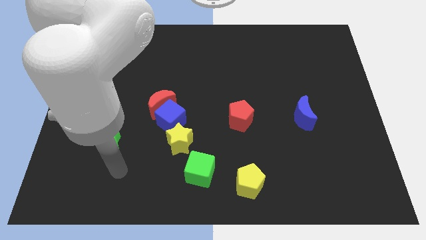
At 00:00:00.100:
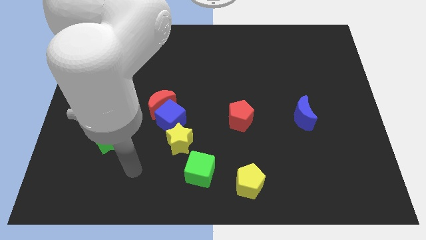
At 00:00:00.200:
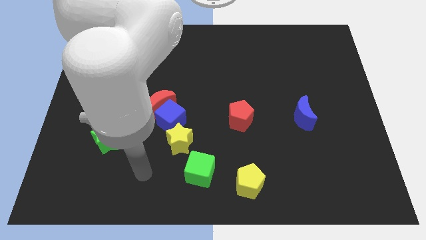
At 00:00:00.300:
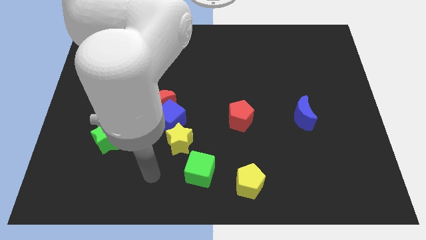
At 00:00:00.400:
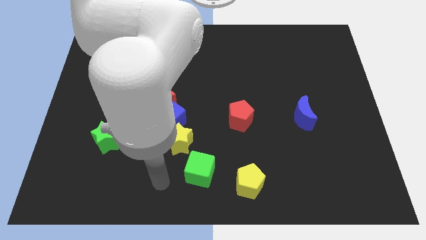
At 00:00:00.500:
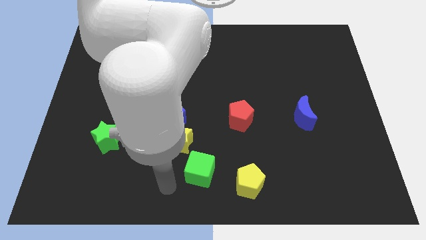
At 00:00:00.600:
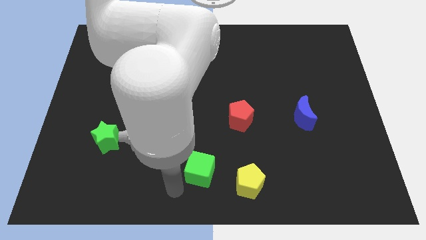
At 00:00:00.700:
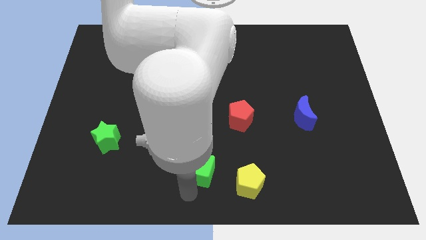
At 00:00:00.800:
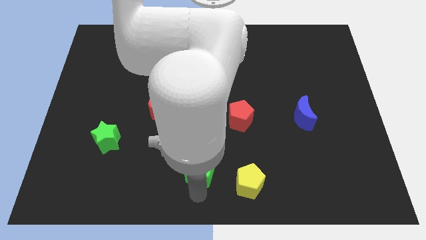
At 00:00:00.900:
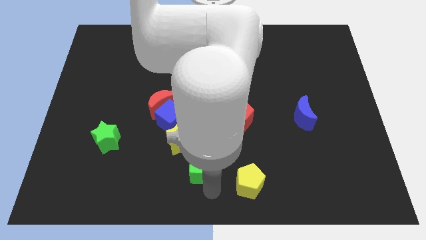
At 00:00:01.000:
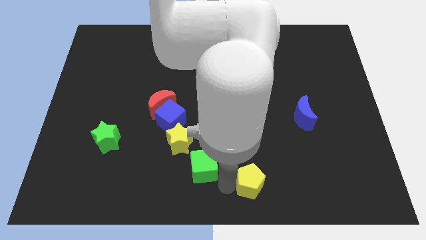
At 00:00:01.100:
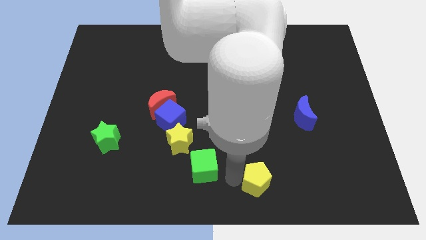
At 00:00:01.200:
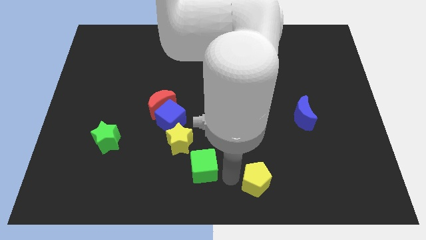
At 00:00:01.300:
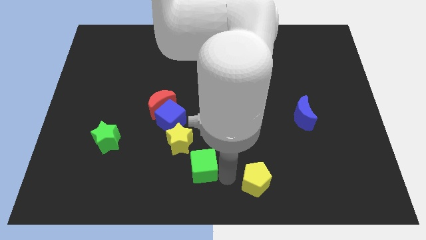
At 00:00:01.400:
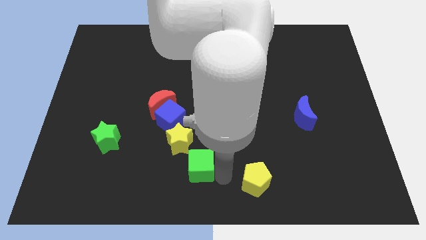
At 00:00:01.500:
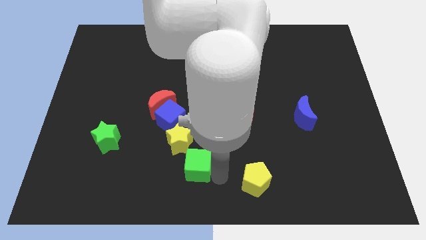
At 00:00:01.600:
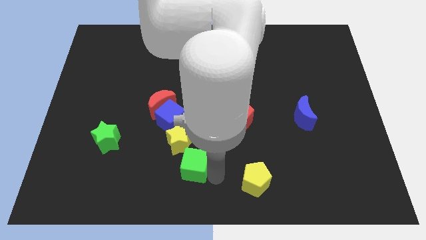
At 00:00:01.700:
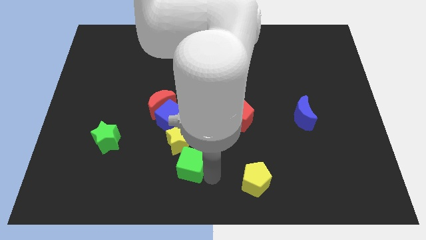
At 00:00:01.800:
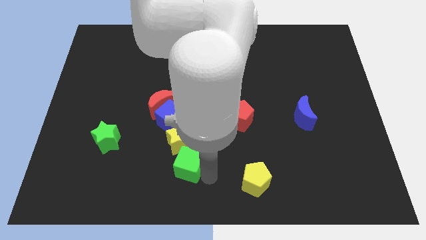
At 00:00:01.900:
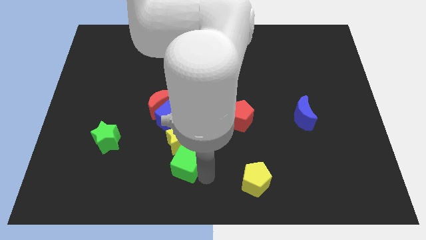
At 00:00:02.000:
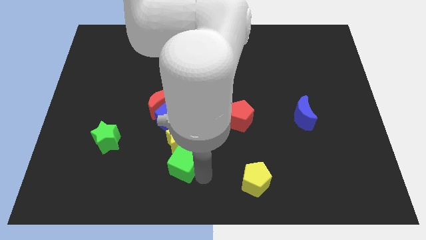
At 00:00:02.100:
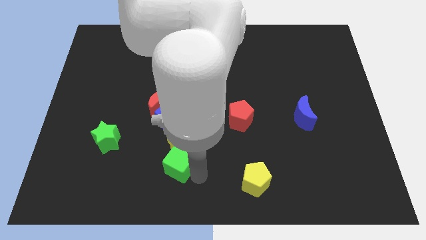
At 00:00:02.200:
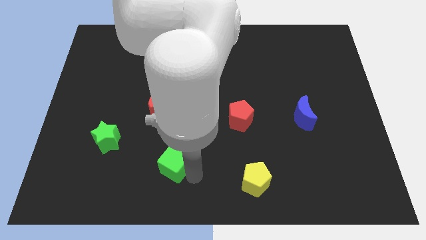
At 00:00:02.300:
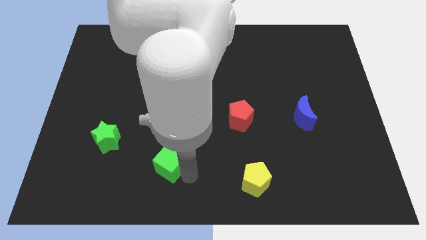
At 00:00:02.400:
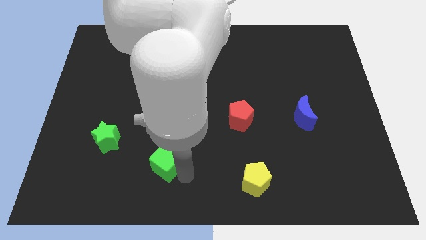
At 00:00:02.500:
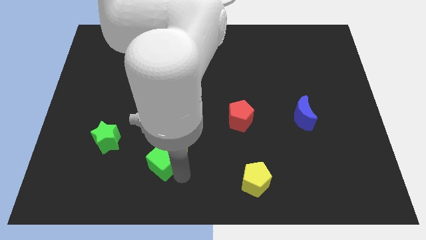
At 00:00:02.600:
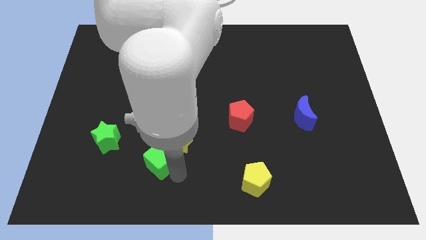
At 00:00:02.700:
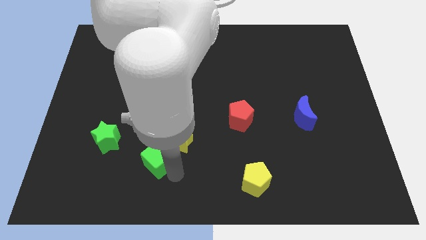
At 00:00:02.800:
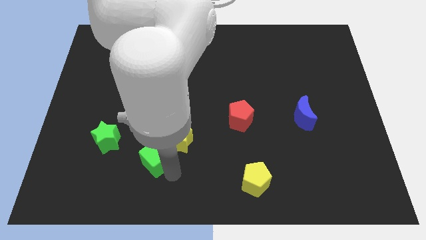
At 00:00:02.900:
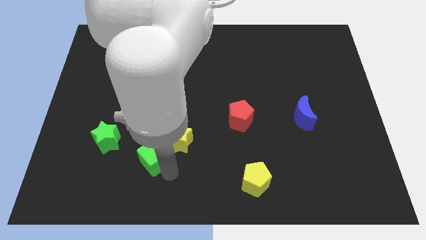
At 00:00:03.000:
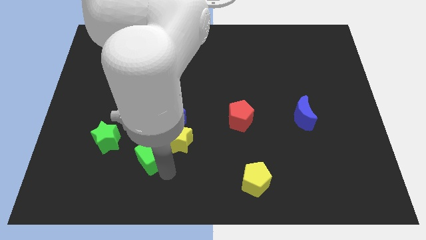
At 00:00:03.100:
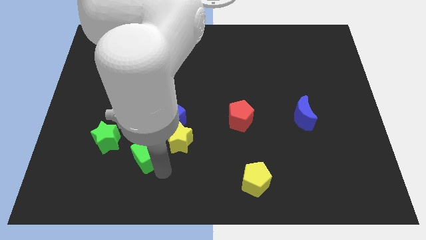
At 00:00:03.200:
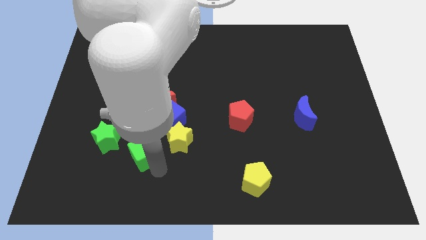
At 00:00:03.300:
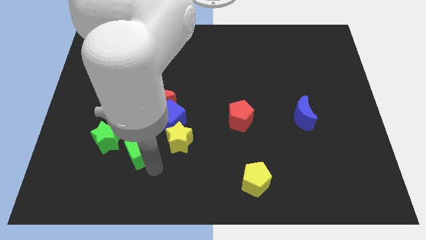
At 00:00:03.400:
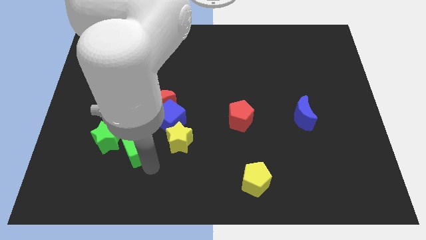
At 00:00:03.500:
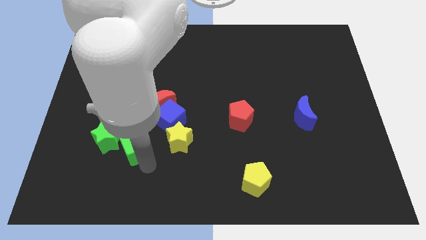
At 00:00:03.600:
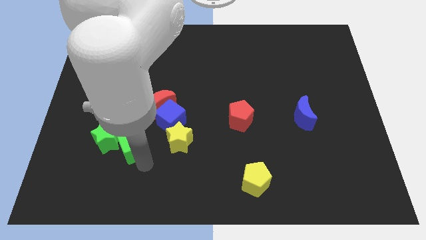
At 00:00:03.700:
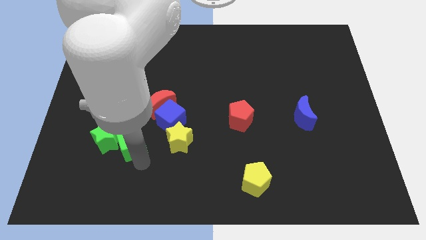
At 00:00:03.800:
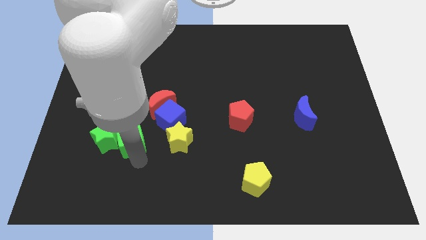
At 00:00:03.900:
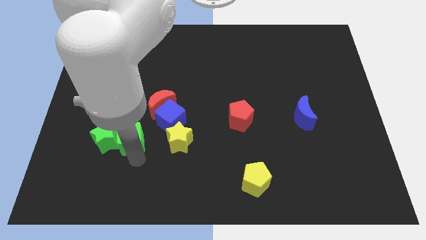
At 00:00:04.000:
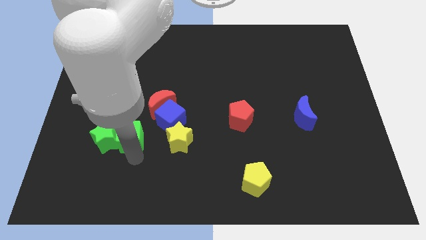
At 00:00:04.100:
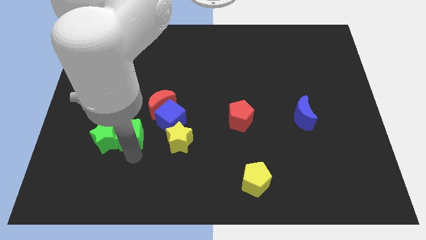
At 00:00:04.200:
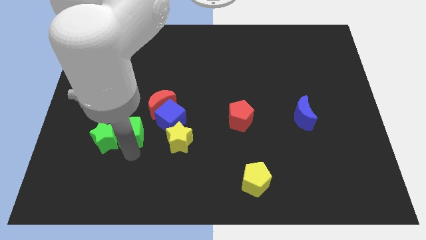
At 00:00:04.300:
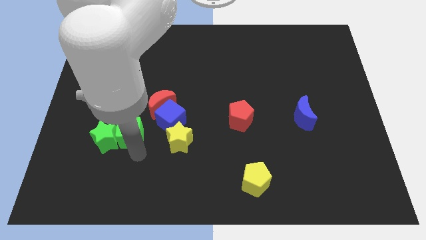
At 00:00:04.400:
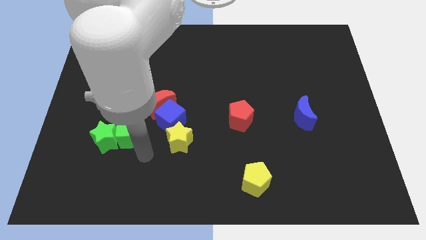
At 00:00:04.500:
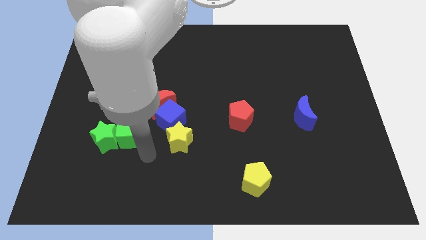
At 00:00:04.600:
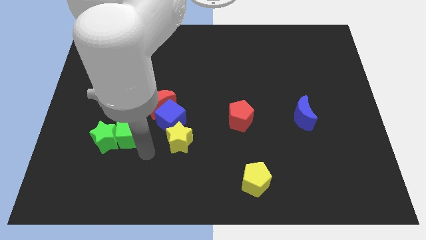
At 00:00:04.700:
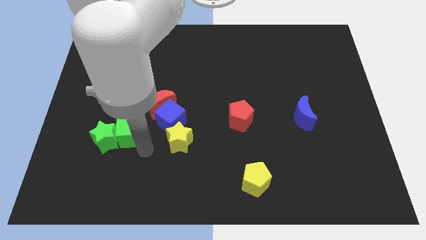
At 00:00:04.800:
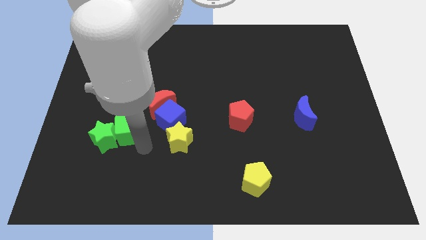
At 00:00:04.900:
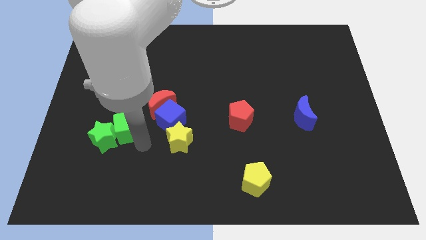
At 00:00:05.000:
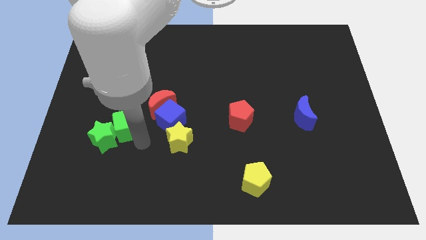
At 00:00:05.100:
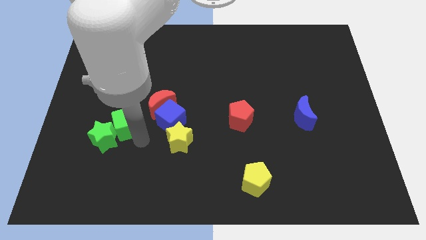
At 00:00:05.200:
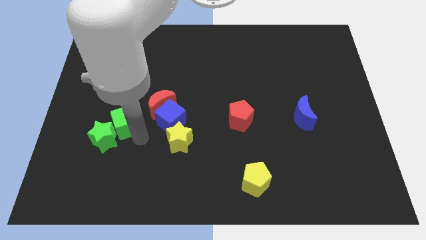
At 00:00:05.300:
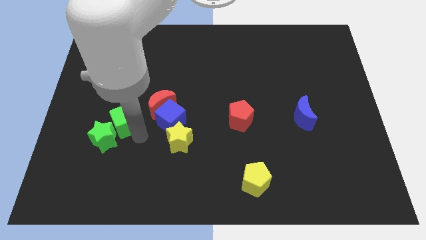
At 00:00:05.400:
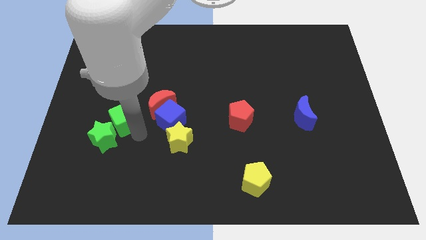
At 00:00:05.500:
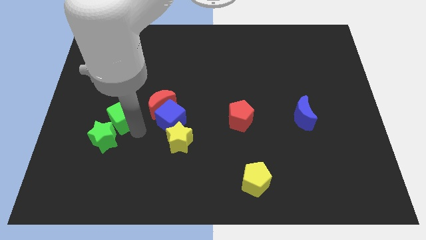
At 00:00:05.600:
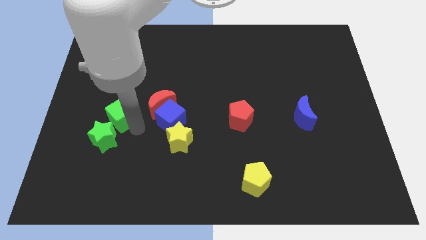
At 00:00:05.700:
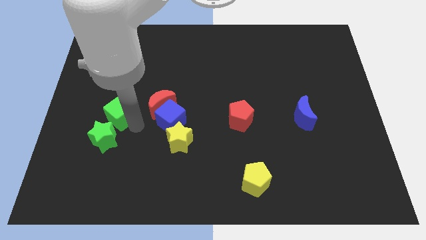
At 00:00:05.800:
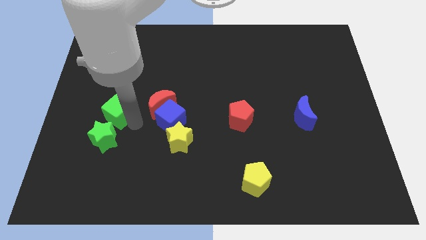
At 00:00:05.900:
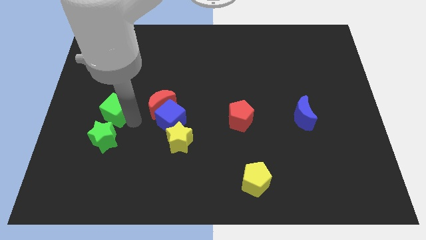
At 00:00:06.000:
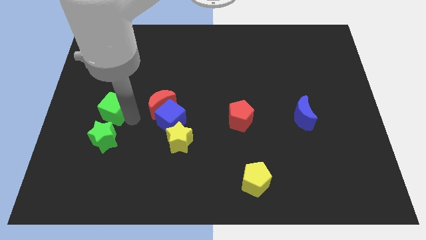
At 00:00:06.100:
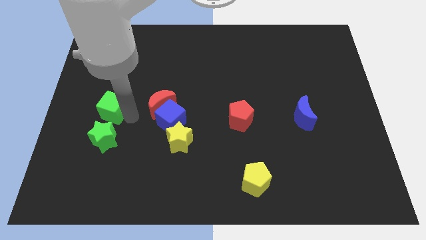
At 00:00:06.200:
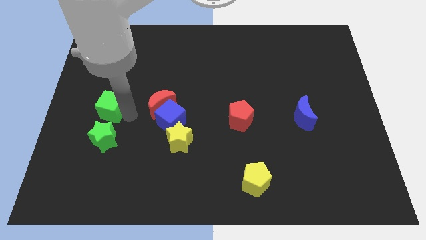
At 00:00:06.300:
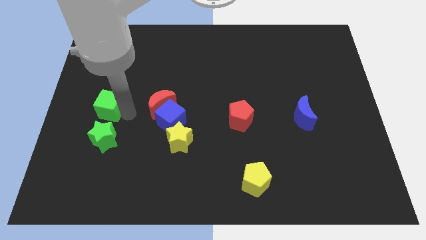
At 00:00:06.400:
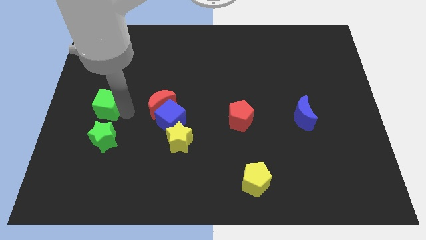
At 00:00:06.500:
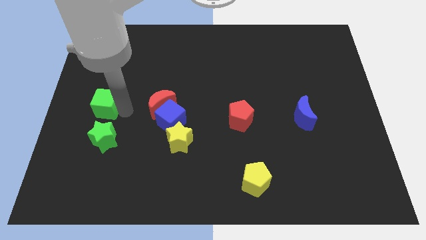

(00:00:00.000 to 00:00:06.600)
push the green cube to the center left
